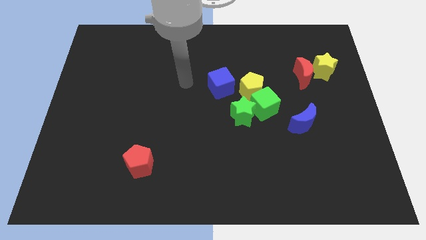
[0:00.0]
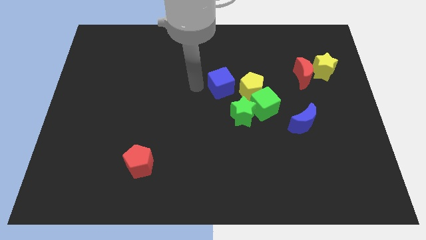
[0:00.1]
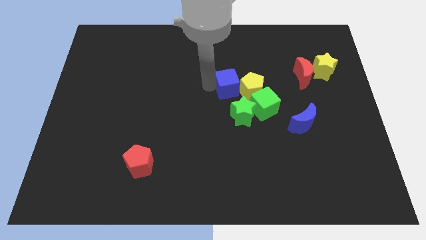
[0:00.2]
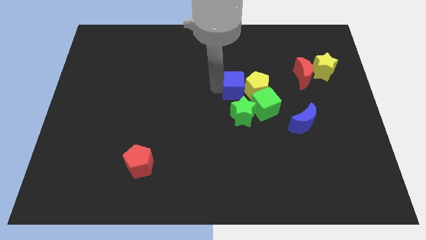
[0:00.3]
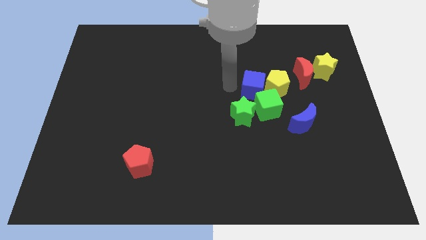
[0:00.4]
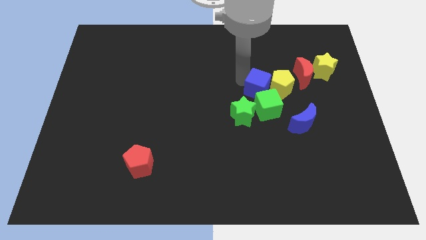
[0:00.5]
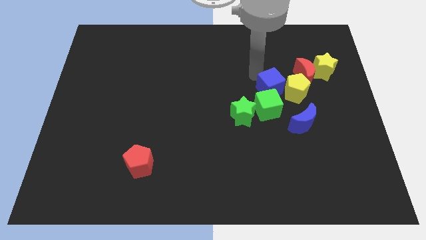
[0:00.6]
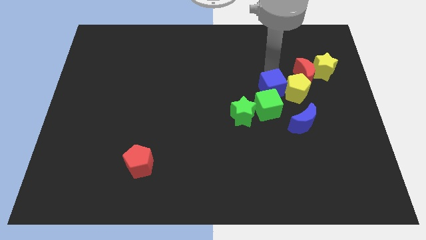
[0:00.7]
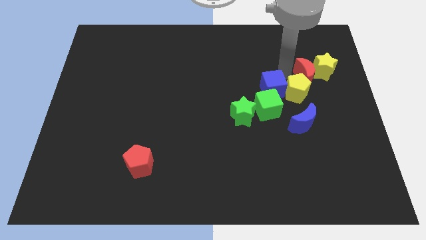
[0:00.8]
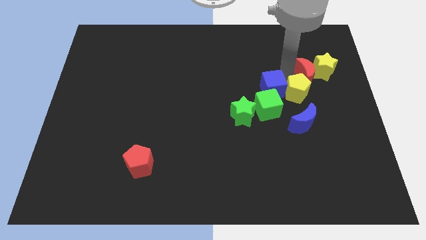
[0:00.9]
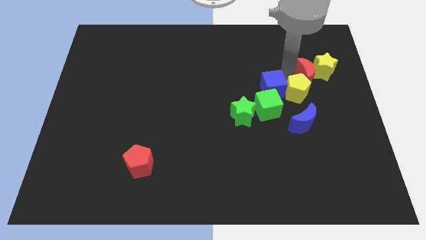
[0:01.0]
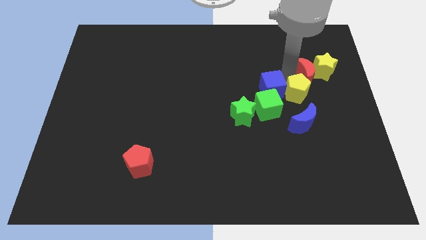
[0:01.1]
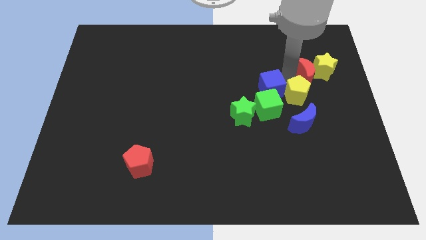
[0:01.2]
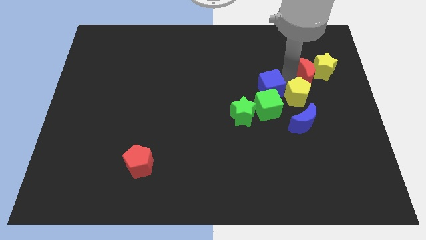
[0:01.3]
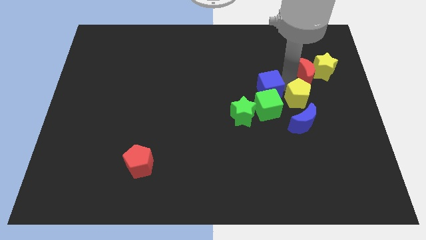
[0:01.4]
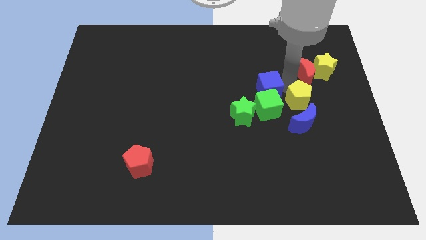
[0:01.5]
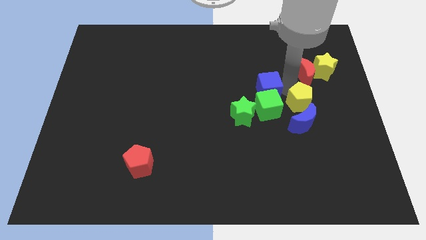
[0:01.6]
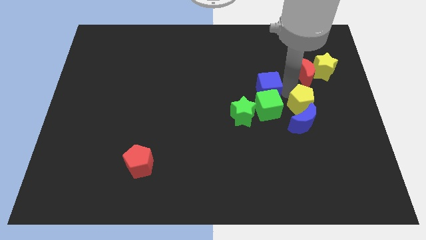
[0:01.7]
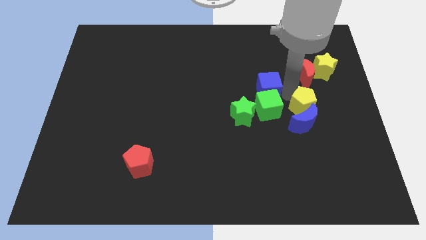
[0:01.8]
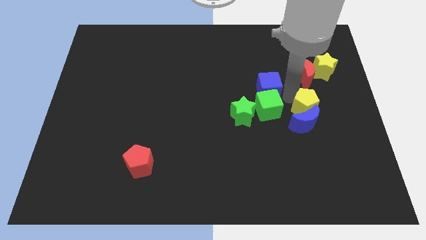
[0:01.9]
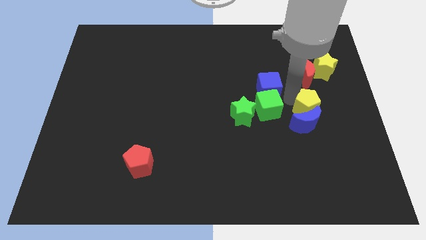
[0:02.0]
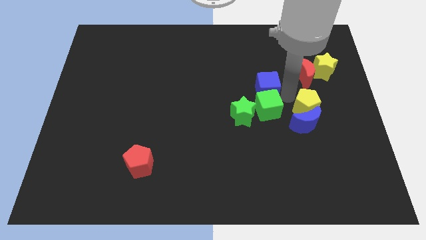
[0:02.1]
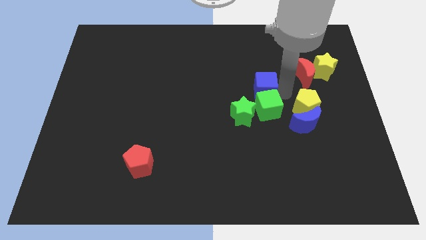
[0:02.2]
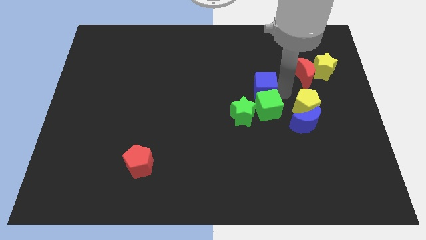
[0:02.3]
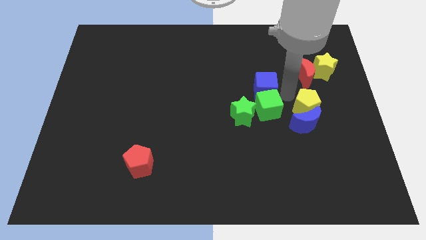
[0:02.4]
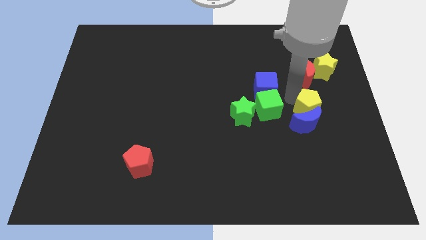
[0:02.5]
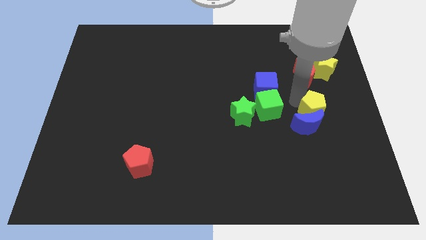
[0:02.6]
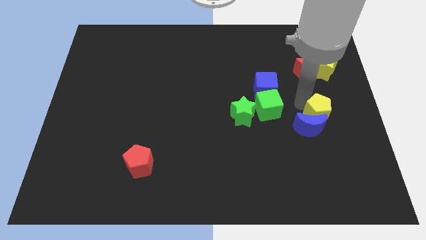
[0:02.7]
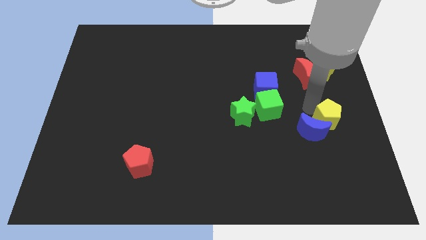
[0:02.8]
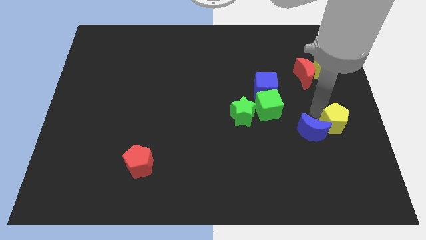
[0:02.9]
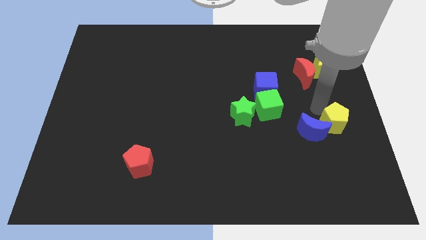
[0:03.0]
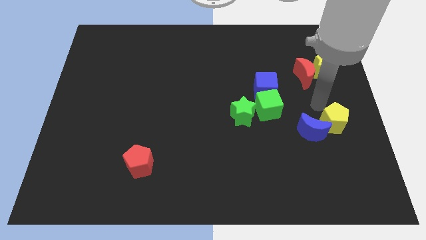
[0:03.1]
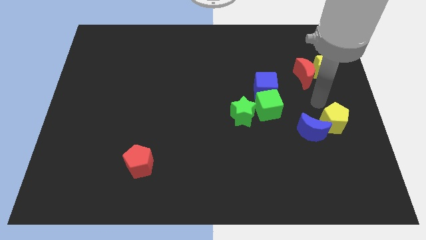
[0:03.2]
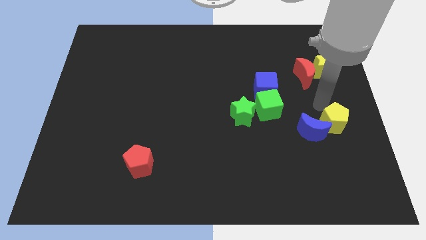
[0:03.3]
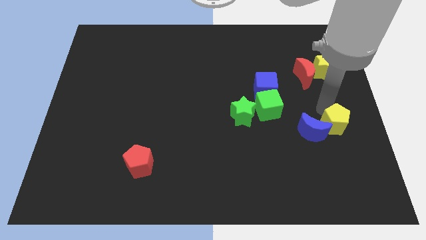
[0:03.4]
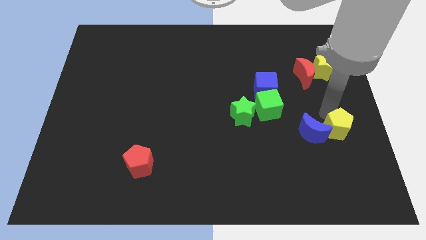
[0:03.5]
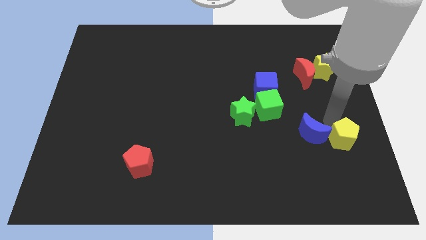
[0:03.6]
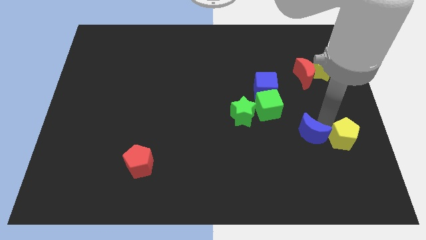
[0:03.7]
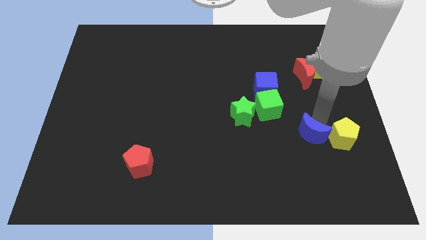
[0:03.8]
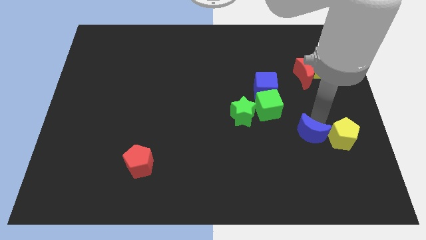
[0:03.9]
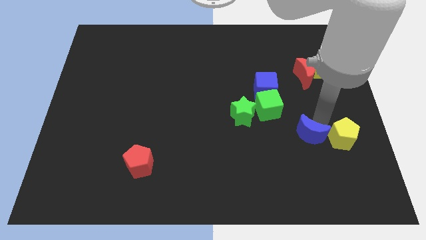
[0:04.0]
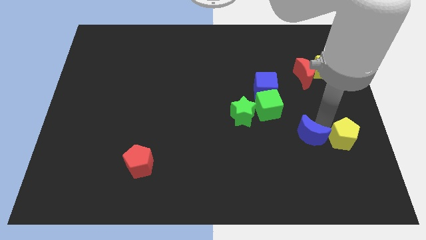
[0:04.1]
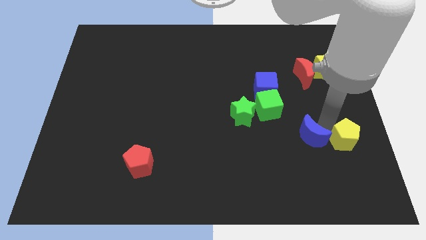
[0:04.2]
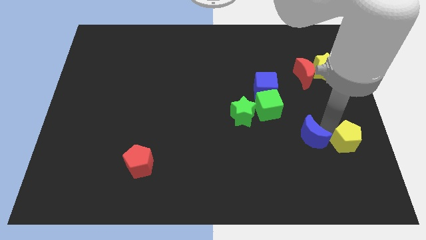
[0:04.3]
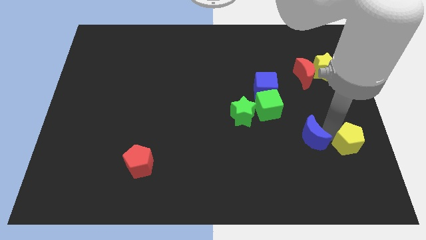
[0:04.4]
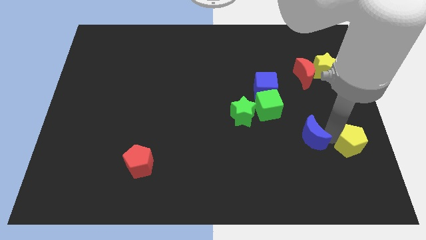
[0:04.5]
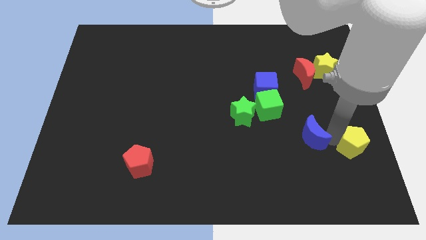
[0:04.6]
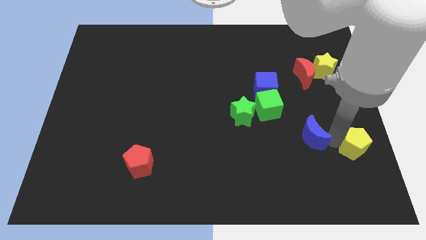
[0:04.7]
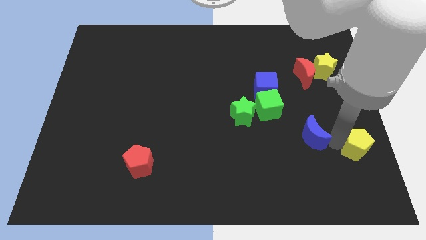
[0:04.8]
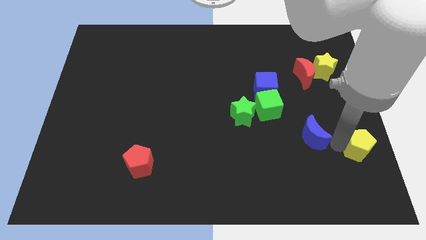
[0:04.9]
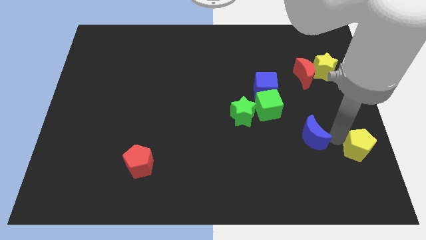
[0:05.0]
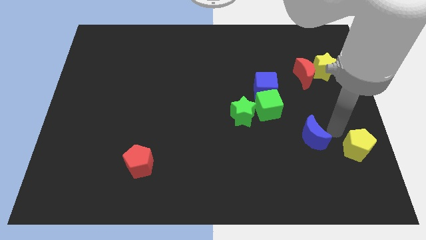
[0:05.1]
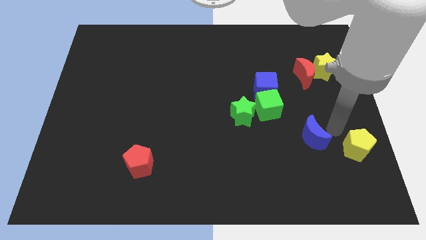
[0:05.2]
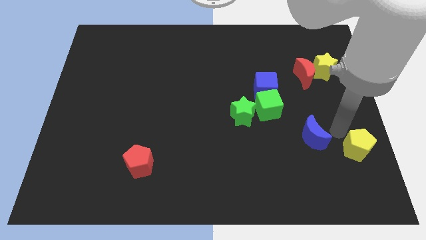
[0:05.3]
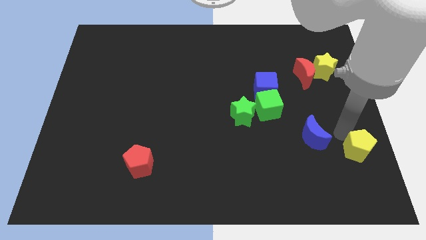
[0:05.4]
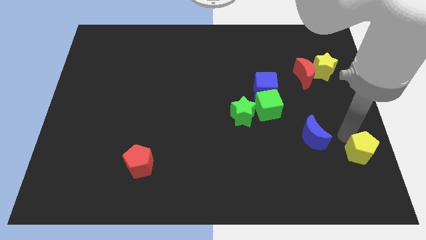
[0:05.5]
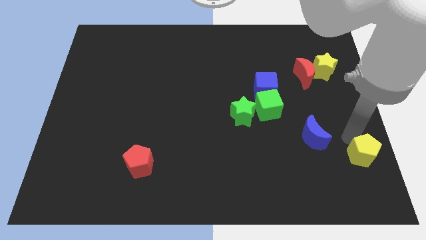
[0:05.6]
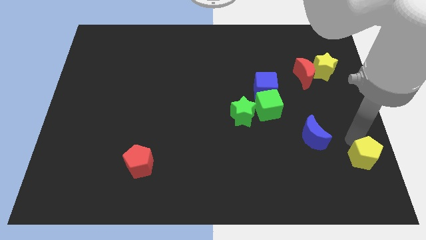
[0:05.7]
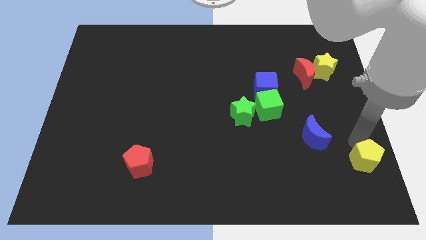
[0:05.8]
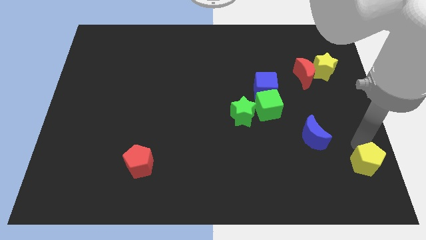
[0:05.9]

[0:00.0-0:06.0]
put the yellow pentagon to the bottom right corner
